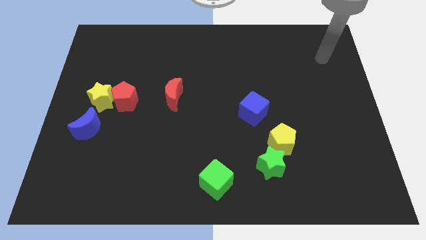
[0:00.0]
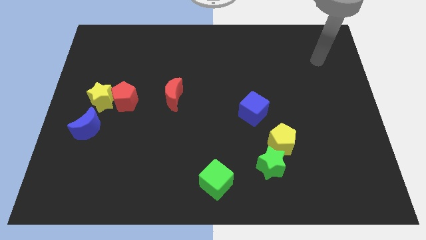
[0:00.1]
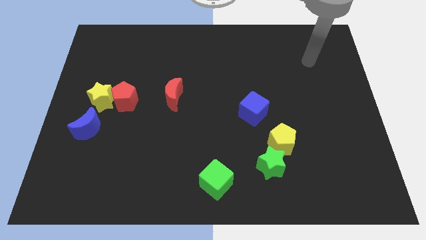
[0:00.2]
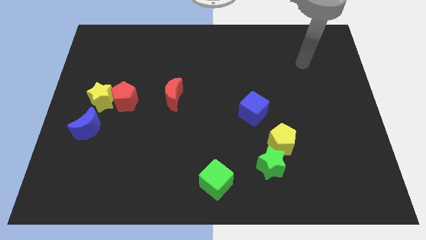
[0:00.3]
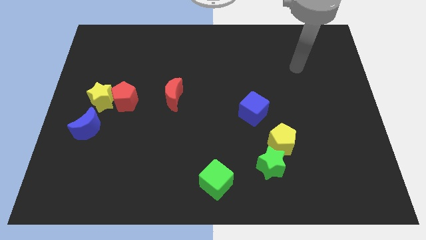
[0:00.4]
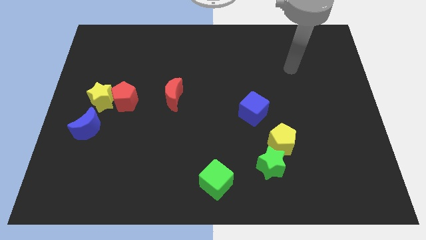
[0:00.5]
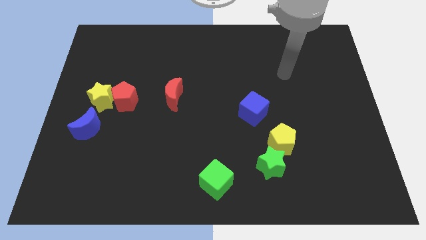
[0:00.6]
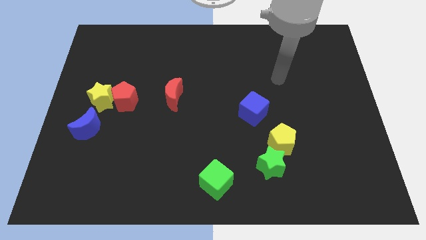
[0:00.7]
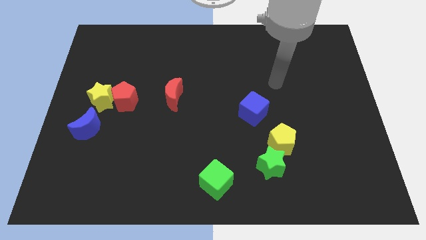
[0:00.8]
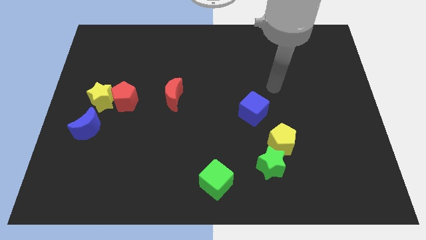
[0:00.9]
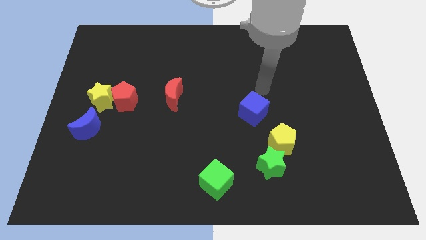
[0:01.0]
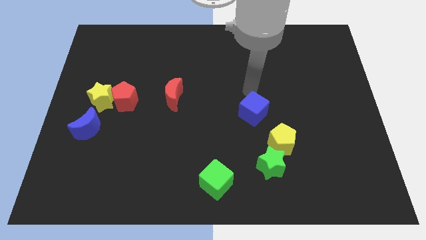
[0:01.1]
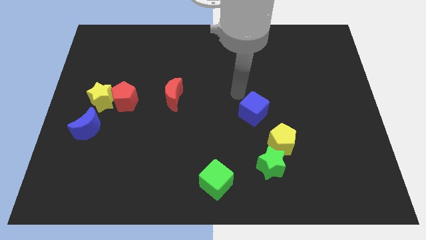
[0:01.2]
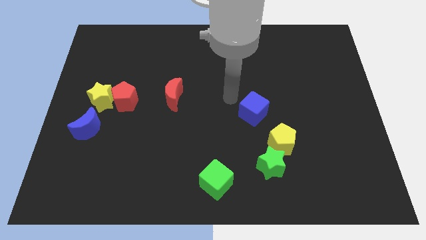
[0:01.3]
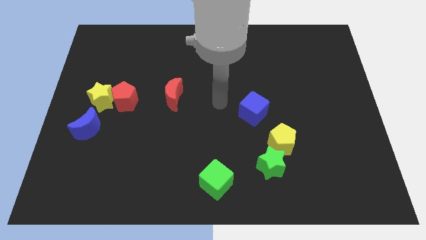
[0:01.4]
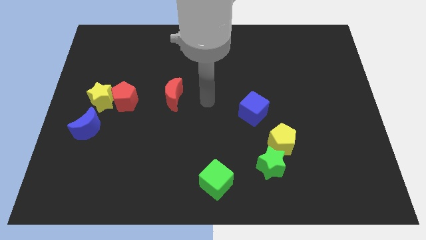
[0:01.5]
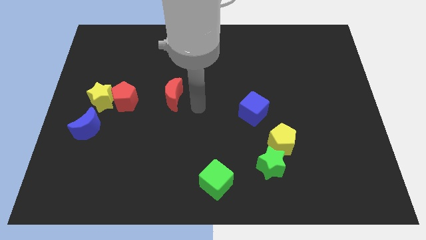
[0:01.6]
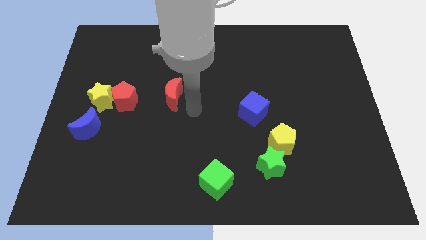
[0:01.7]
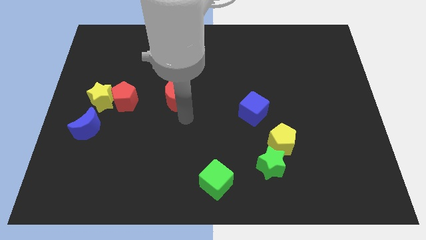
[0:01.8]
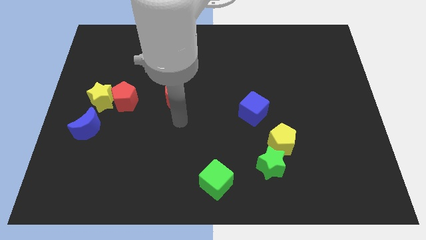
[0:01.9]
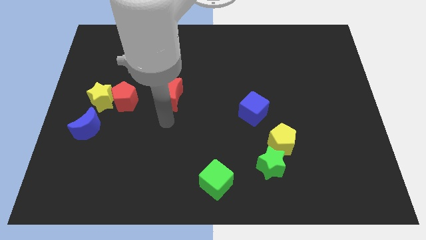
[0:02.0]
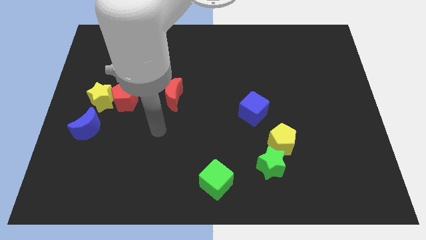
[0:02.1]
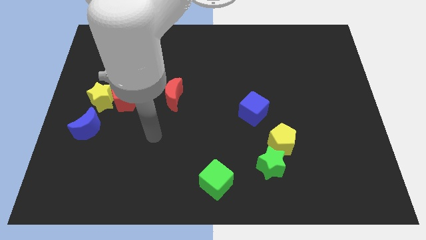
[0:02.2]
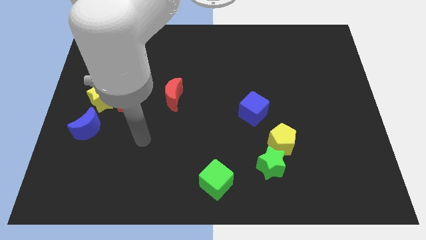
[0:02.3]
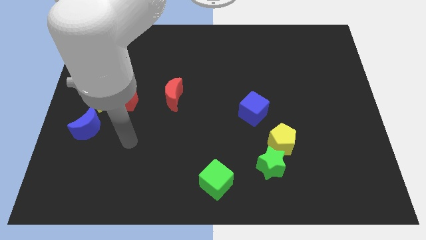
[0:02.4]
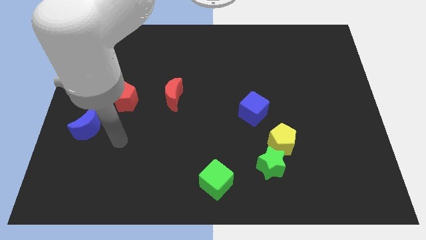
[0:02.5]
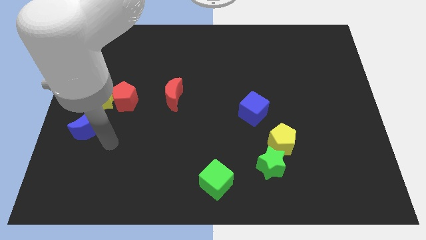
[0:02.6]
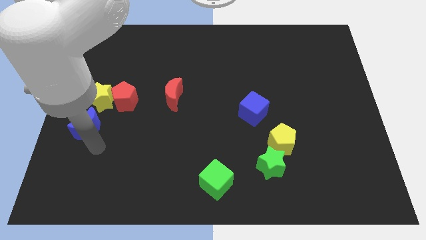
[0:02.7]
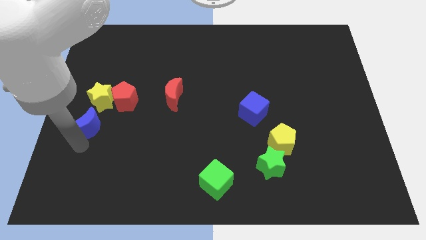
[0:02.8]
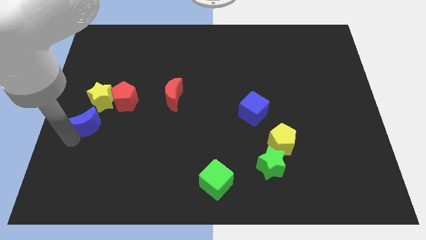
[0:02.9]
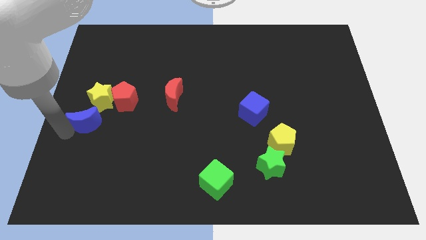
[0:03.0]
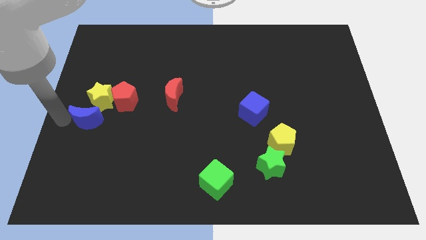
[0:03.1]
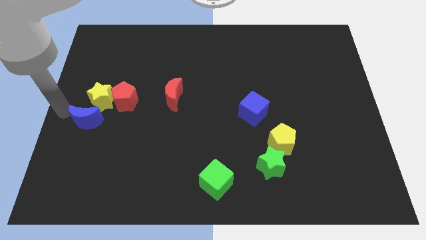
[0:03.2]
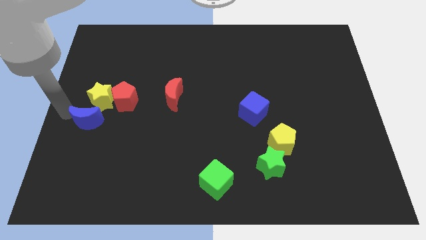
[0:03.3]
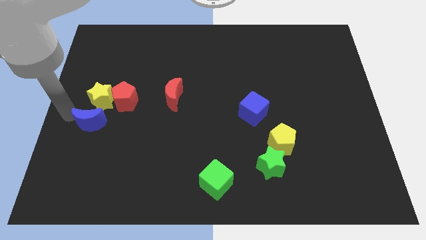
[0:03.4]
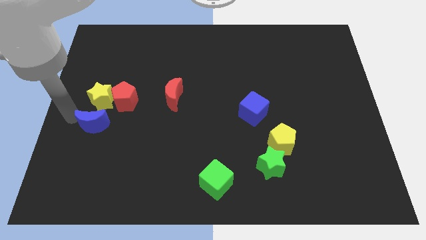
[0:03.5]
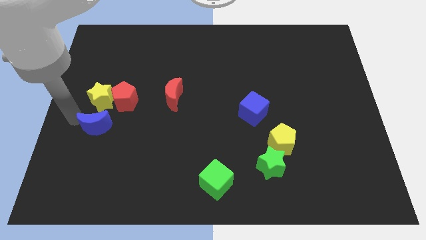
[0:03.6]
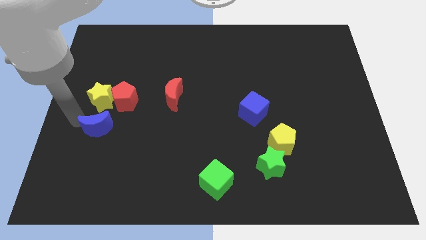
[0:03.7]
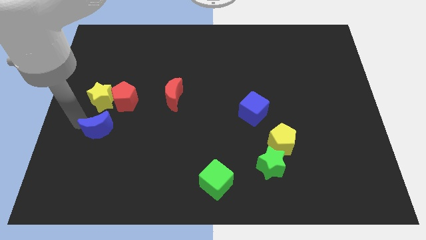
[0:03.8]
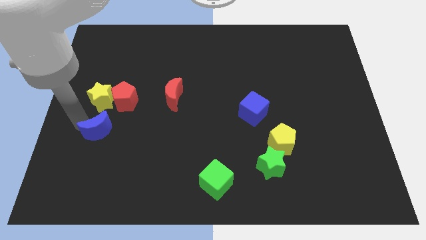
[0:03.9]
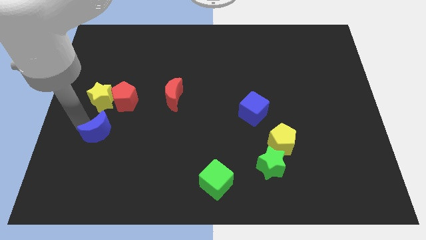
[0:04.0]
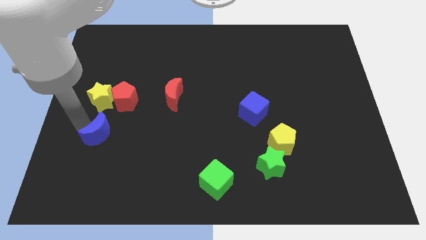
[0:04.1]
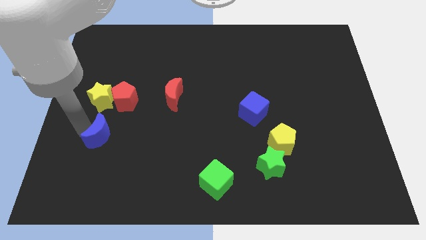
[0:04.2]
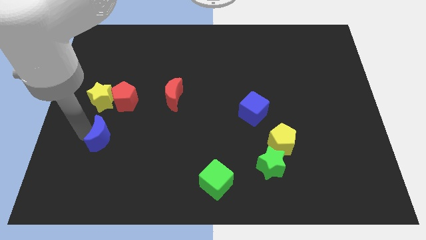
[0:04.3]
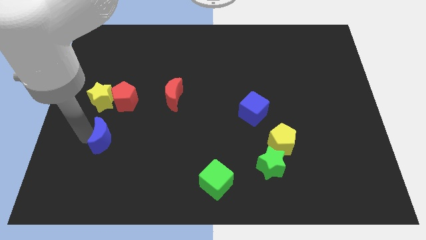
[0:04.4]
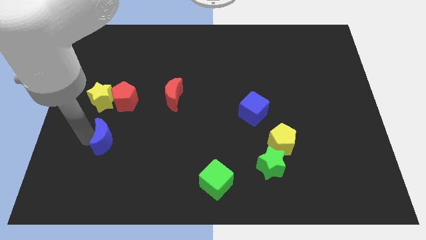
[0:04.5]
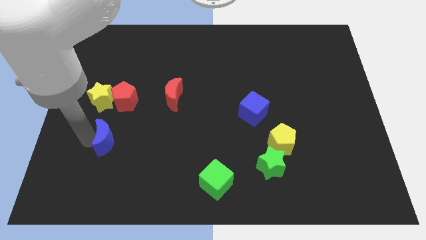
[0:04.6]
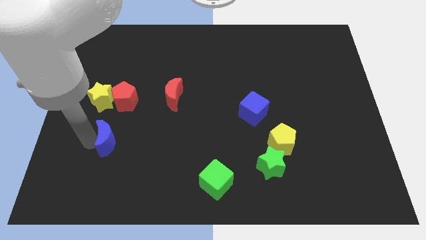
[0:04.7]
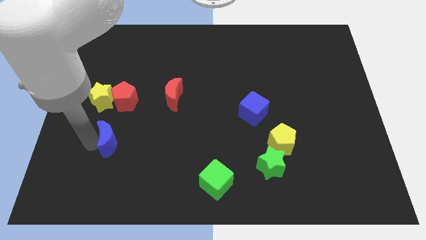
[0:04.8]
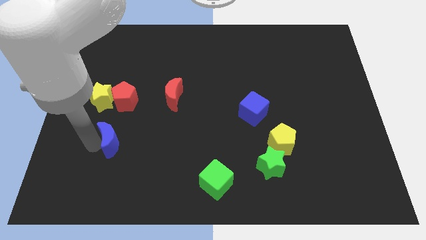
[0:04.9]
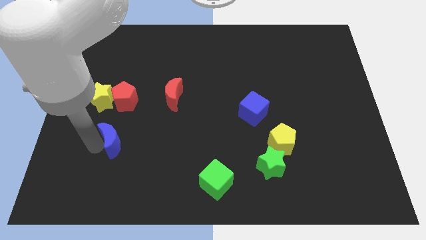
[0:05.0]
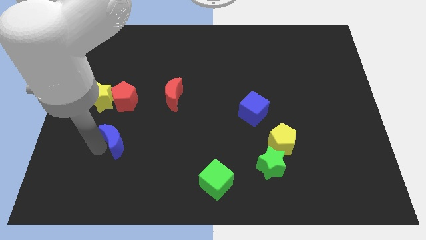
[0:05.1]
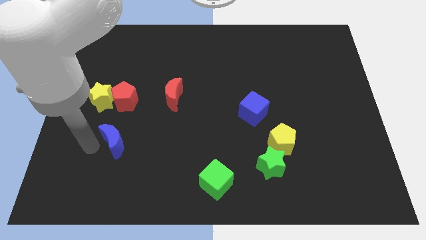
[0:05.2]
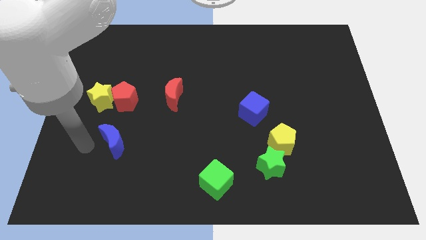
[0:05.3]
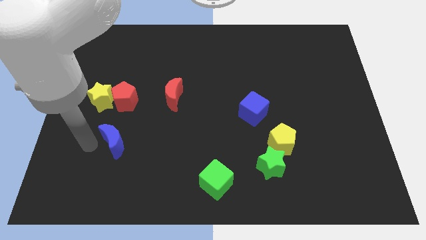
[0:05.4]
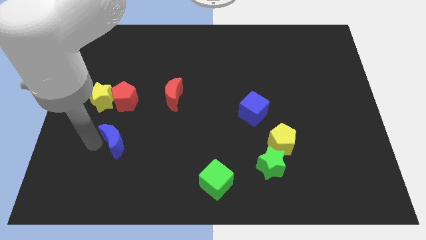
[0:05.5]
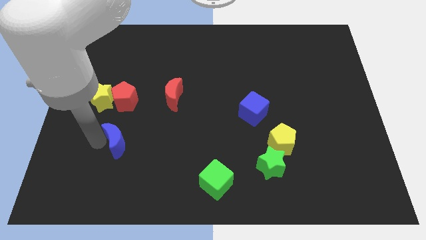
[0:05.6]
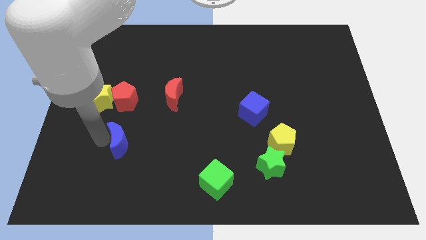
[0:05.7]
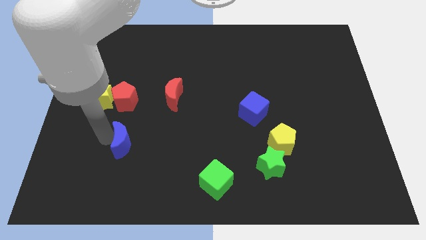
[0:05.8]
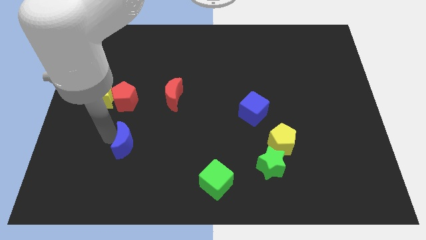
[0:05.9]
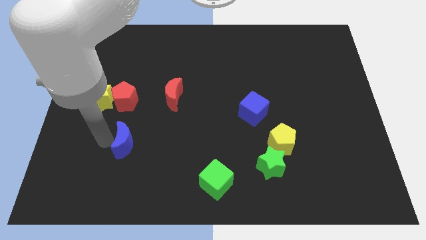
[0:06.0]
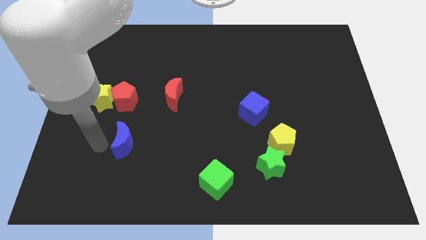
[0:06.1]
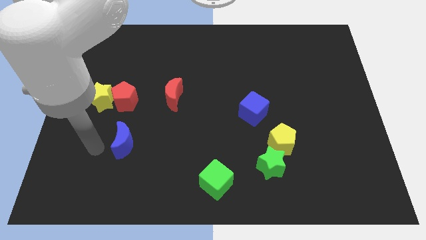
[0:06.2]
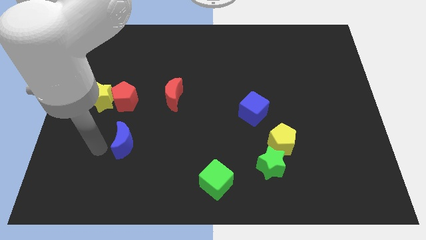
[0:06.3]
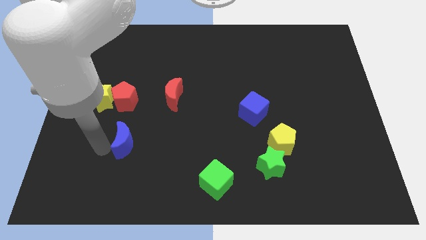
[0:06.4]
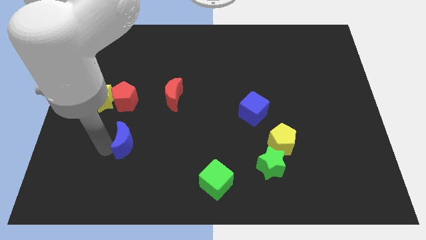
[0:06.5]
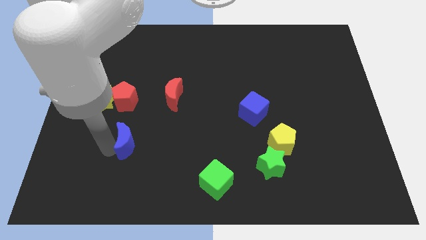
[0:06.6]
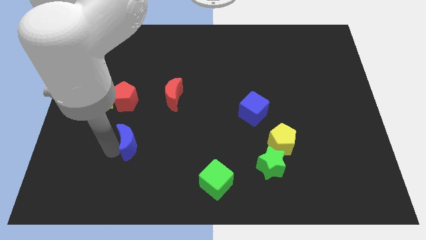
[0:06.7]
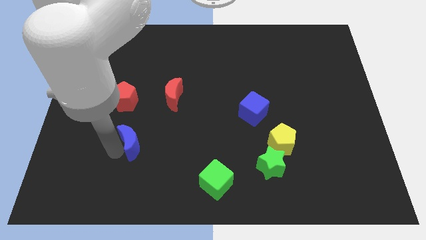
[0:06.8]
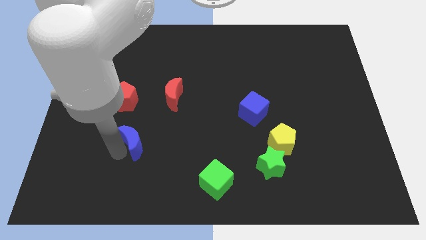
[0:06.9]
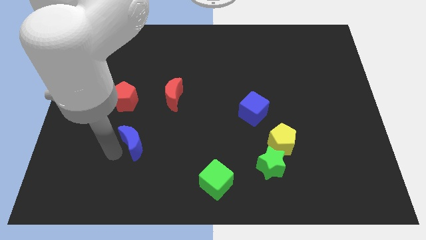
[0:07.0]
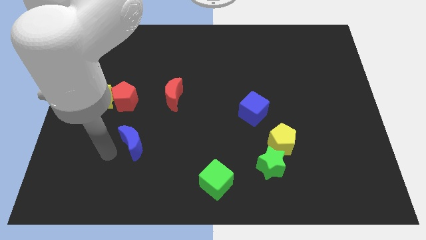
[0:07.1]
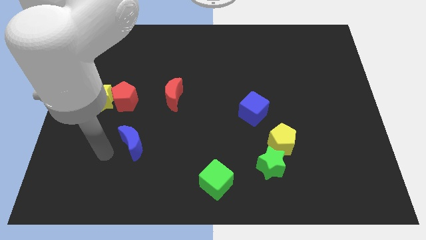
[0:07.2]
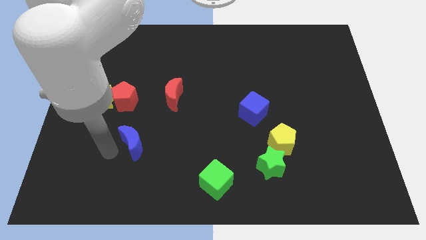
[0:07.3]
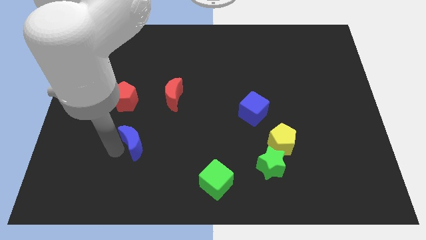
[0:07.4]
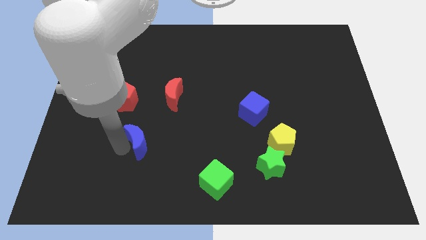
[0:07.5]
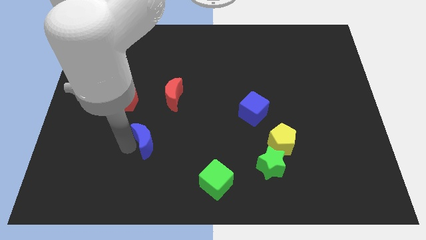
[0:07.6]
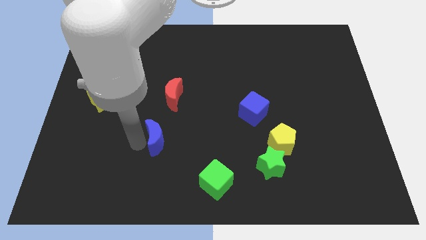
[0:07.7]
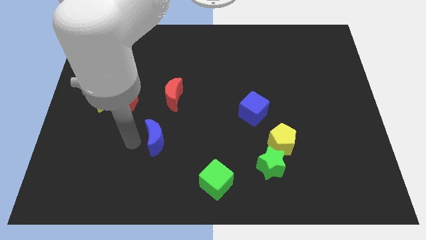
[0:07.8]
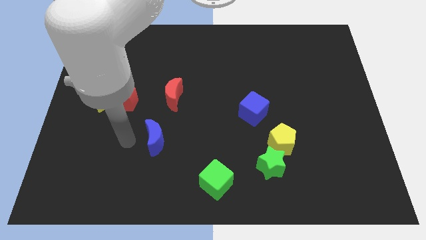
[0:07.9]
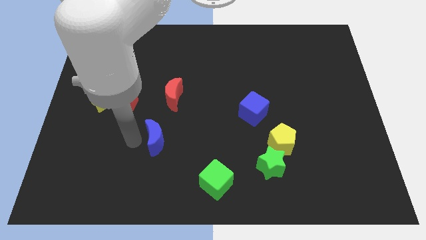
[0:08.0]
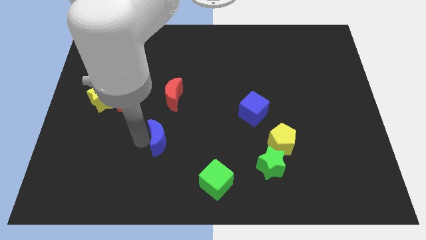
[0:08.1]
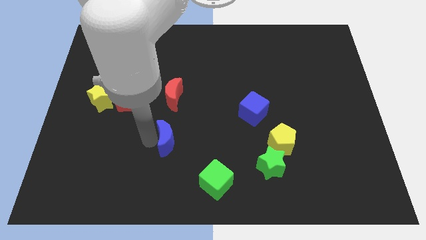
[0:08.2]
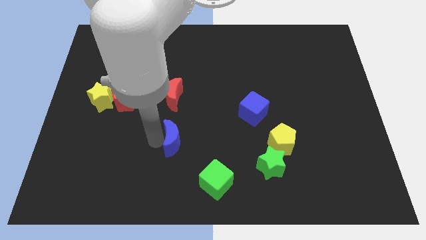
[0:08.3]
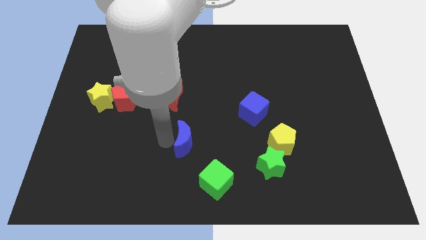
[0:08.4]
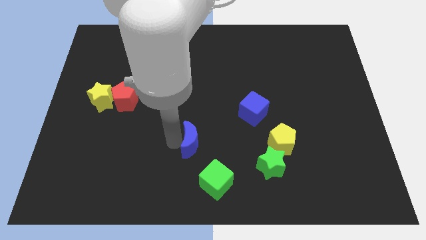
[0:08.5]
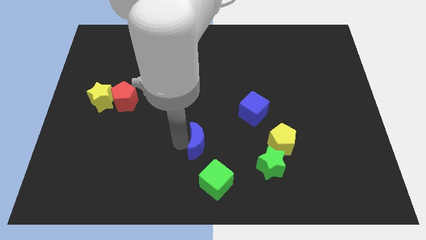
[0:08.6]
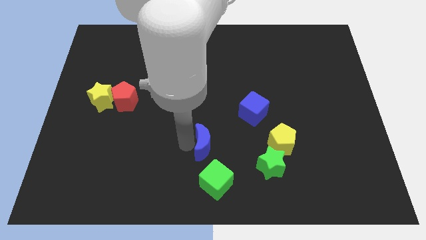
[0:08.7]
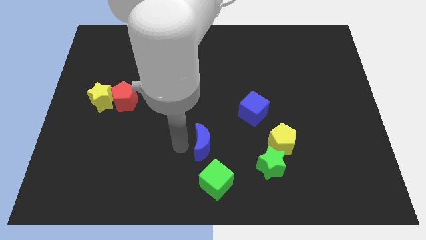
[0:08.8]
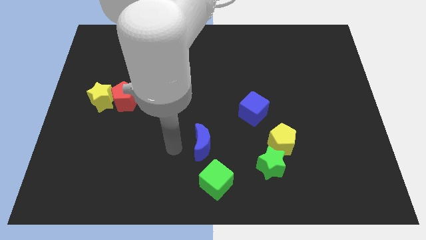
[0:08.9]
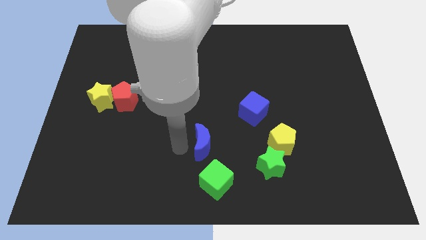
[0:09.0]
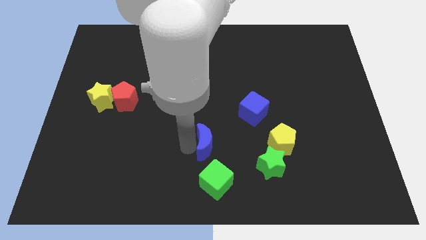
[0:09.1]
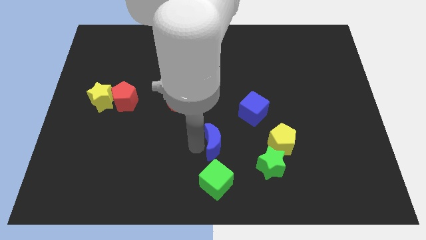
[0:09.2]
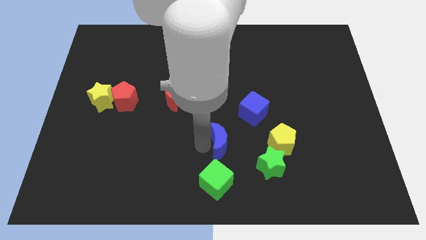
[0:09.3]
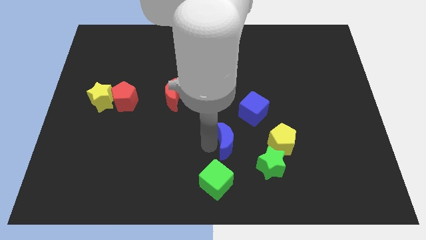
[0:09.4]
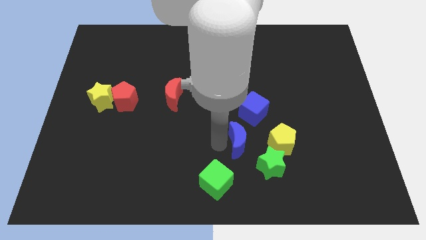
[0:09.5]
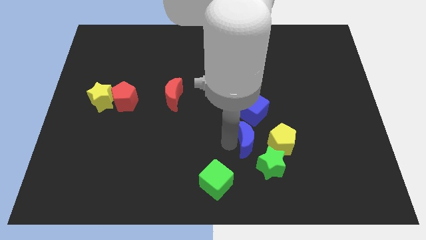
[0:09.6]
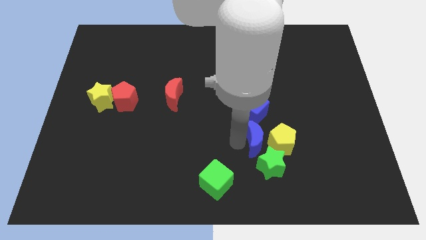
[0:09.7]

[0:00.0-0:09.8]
put the blue moon to the yellow pentagon
